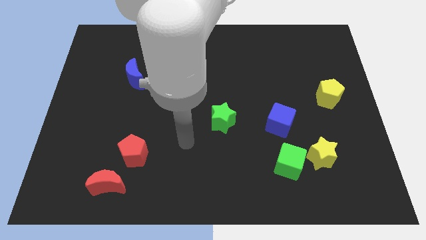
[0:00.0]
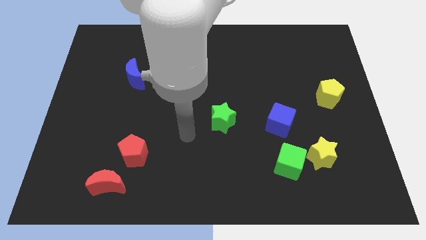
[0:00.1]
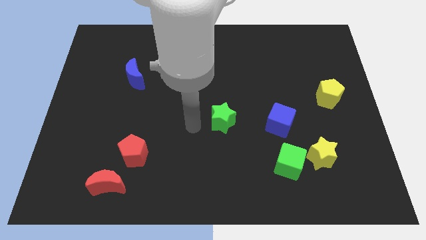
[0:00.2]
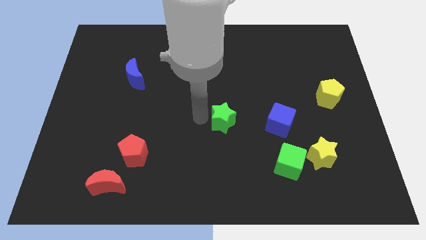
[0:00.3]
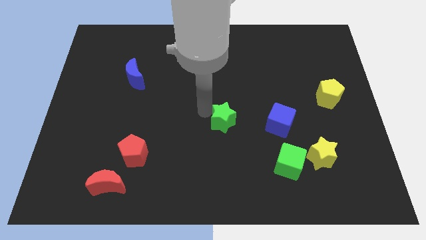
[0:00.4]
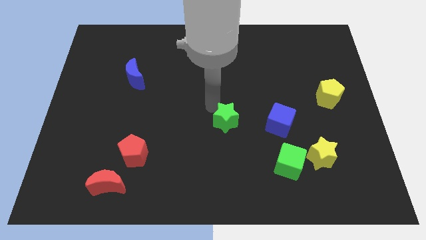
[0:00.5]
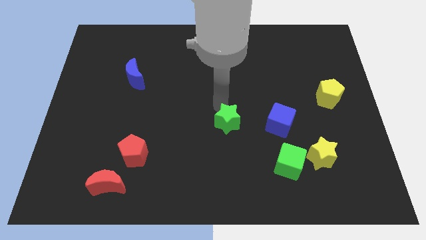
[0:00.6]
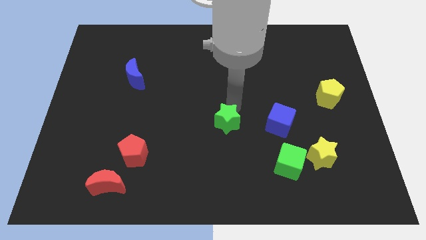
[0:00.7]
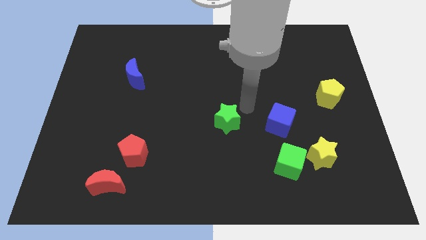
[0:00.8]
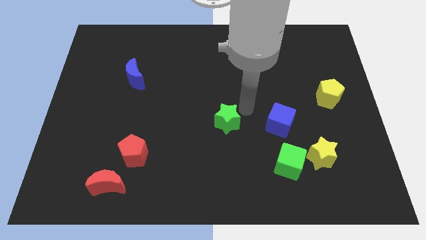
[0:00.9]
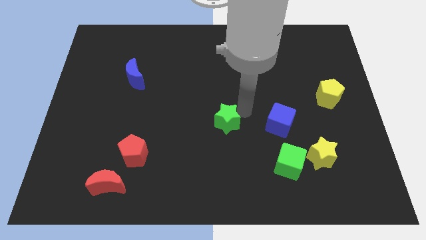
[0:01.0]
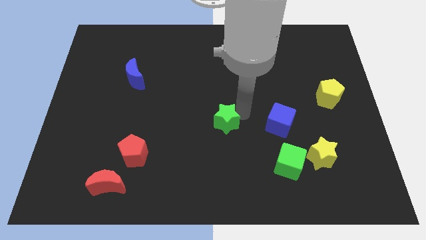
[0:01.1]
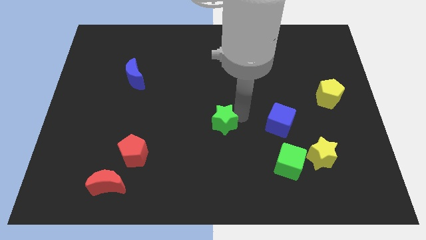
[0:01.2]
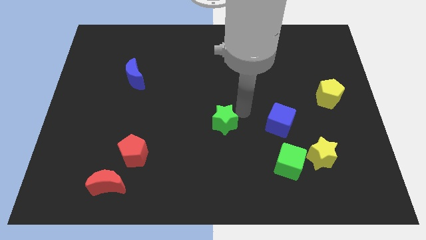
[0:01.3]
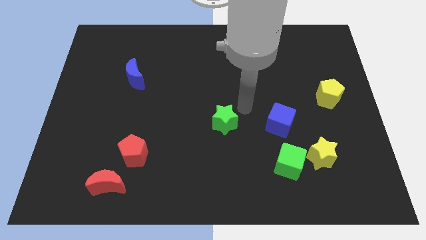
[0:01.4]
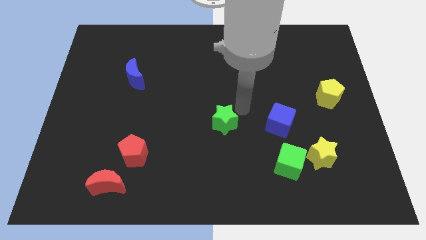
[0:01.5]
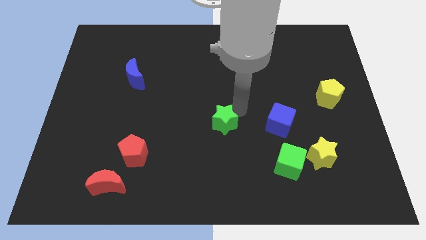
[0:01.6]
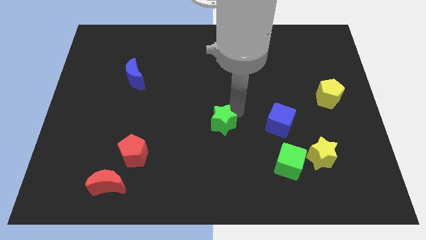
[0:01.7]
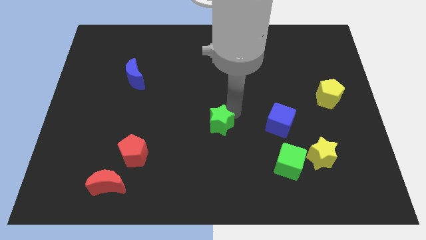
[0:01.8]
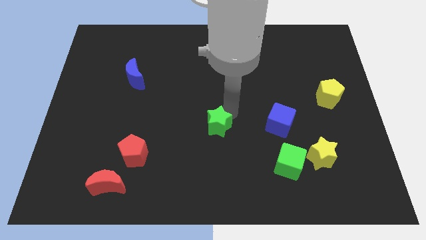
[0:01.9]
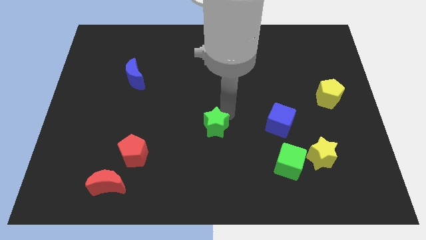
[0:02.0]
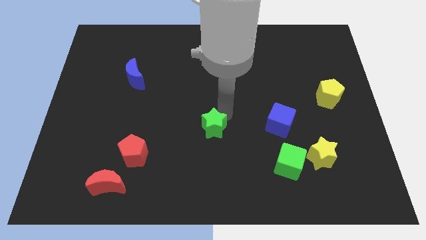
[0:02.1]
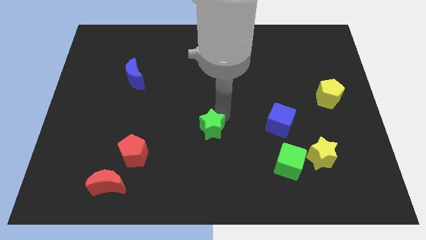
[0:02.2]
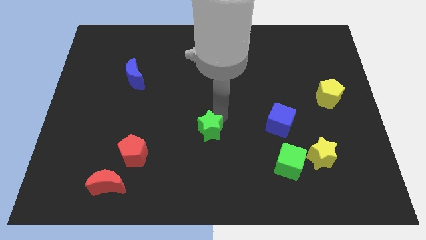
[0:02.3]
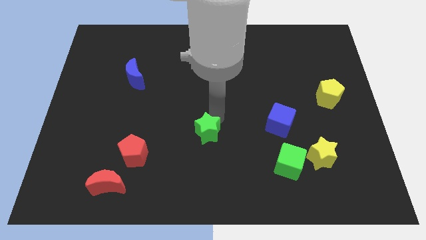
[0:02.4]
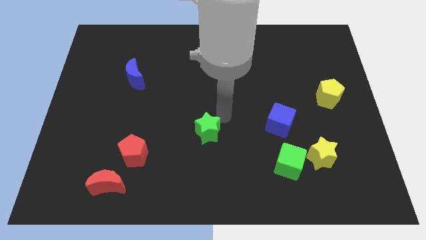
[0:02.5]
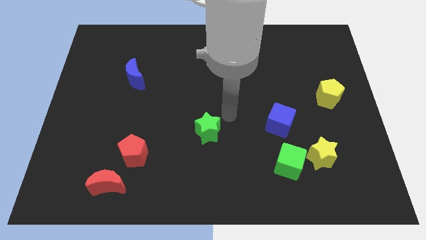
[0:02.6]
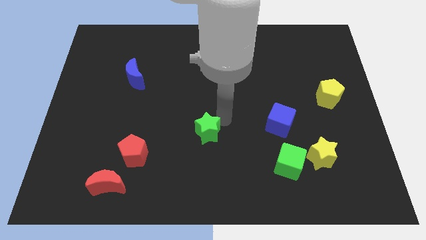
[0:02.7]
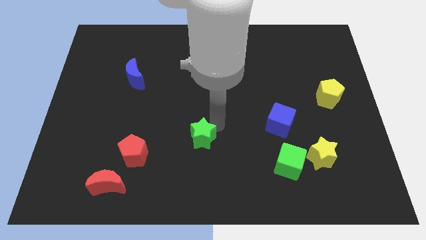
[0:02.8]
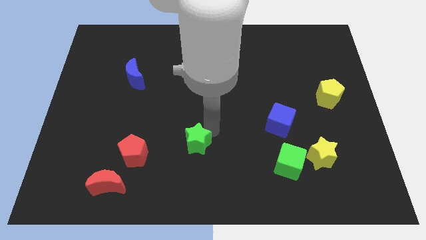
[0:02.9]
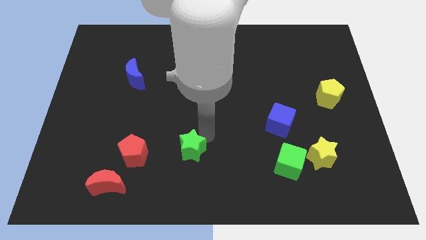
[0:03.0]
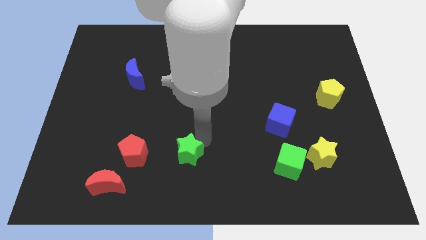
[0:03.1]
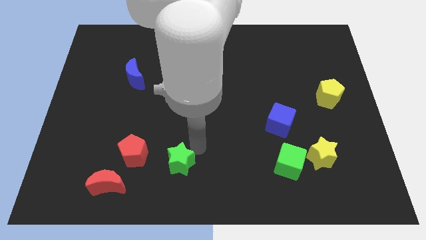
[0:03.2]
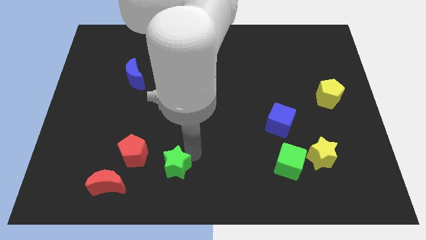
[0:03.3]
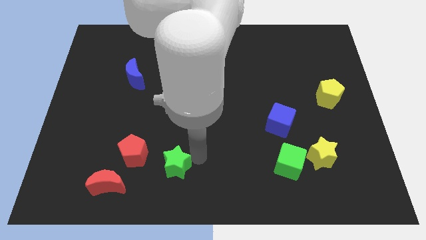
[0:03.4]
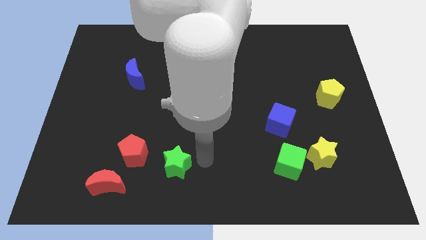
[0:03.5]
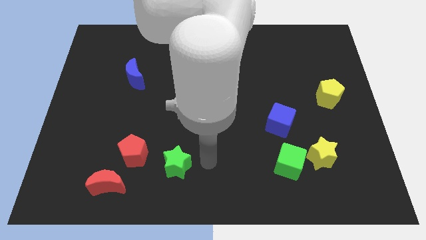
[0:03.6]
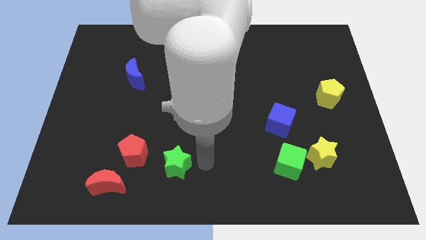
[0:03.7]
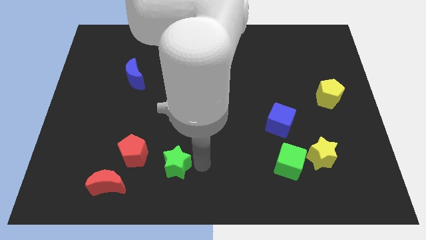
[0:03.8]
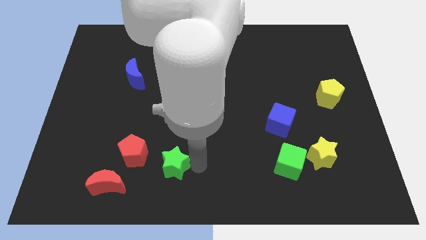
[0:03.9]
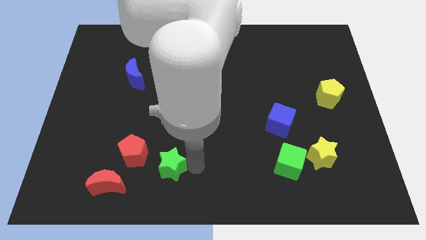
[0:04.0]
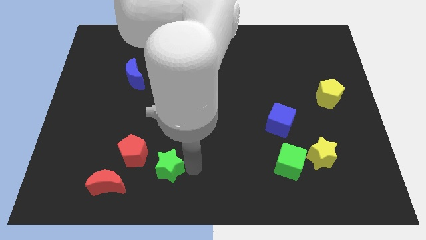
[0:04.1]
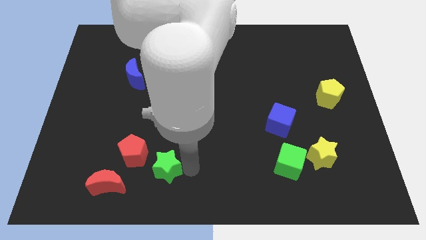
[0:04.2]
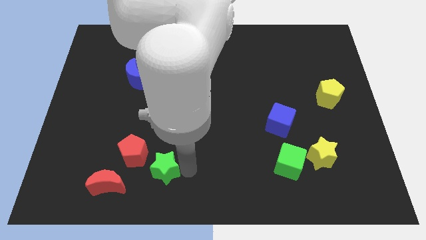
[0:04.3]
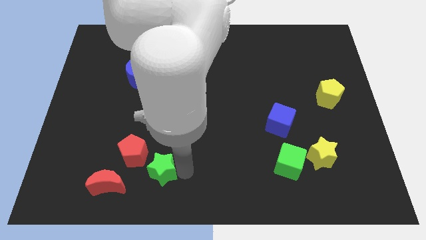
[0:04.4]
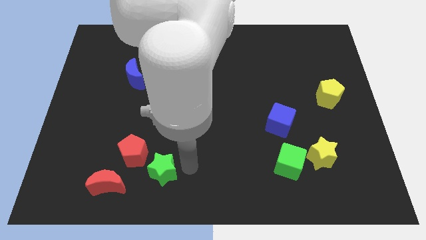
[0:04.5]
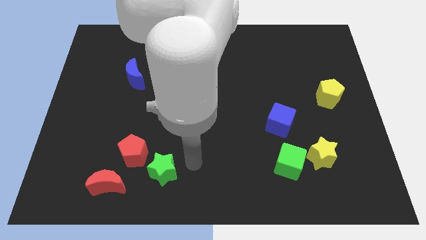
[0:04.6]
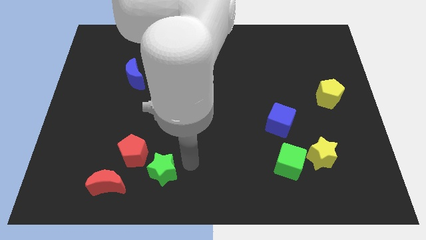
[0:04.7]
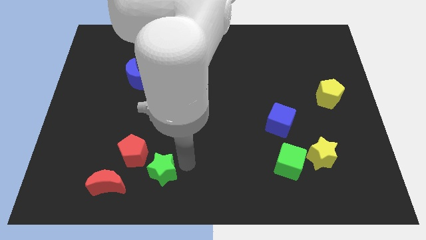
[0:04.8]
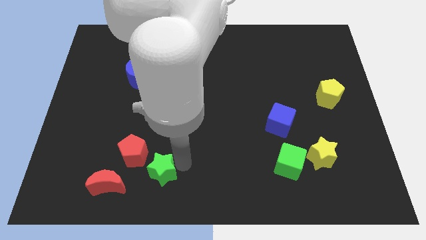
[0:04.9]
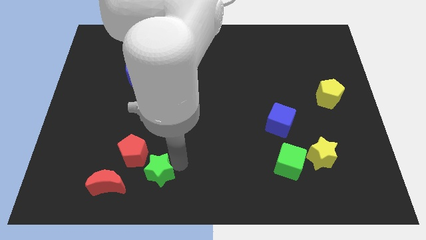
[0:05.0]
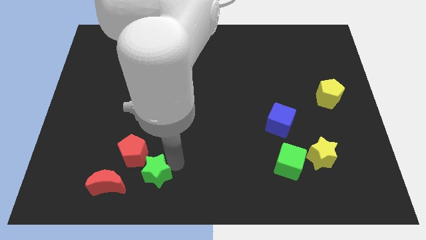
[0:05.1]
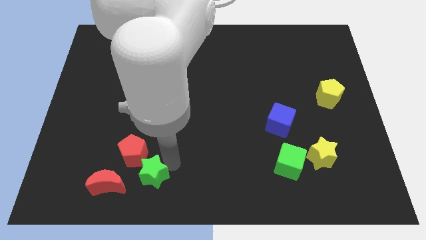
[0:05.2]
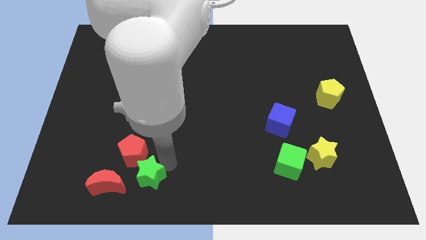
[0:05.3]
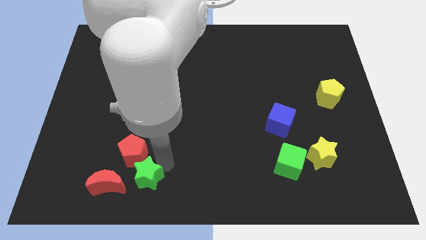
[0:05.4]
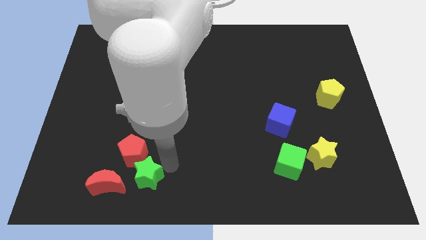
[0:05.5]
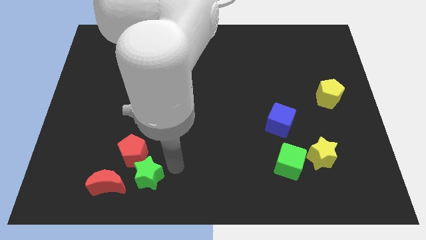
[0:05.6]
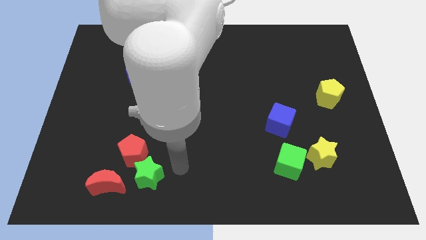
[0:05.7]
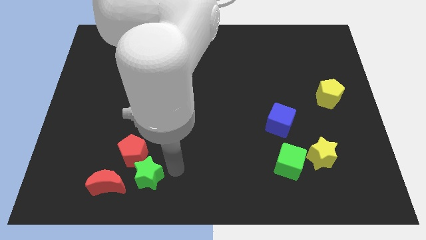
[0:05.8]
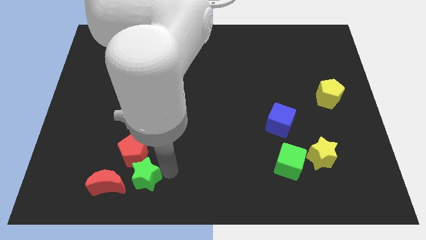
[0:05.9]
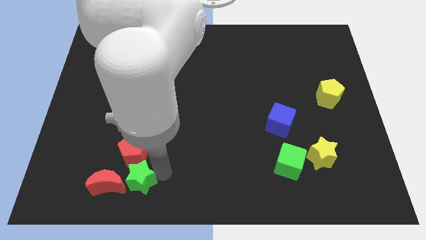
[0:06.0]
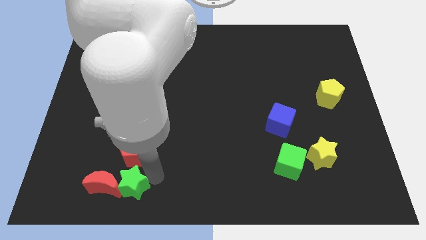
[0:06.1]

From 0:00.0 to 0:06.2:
slide the green star next to the red moon

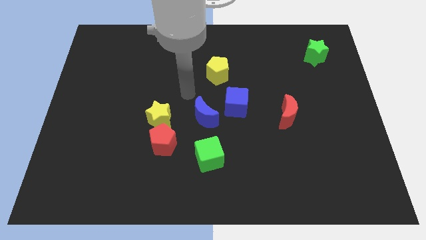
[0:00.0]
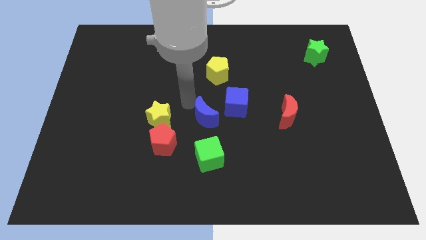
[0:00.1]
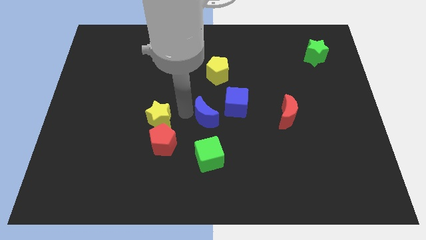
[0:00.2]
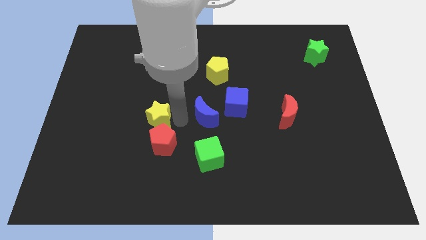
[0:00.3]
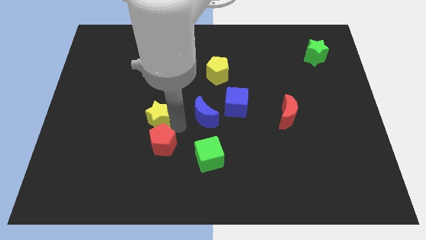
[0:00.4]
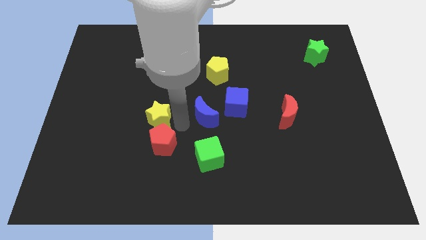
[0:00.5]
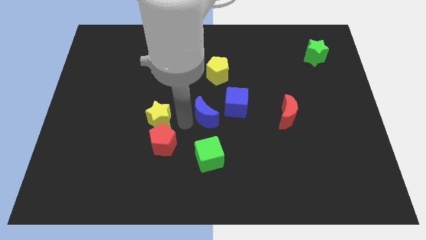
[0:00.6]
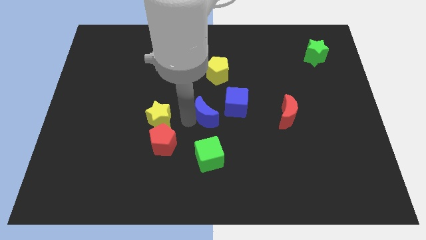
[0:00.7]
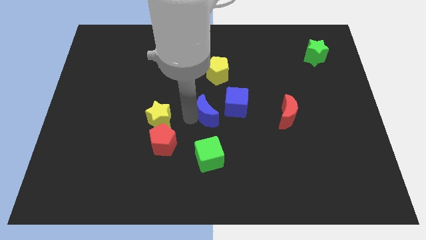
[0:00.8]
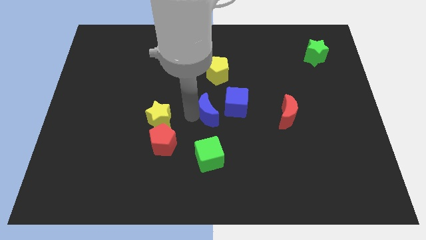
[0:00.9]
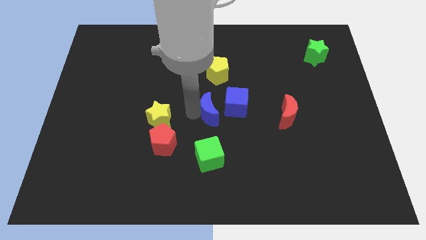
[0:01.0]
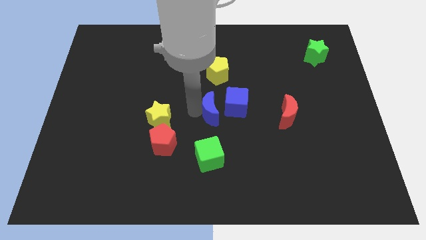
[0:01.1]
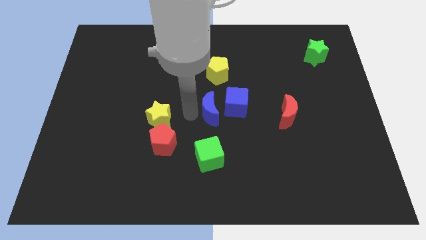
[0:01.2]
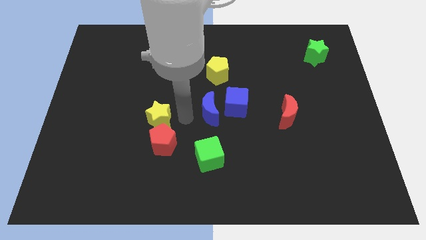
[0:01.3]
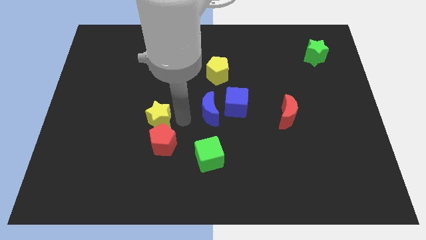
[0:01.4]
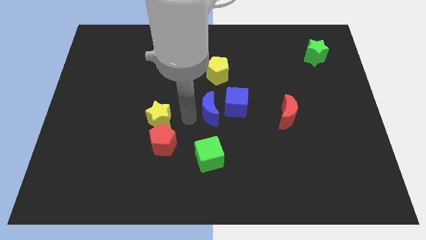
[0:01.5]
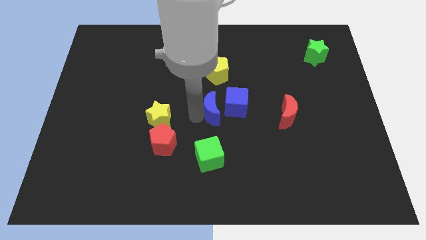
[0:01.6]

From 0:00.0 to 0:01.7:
push the blue moon to the blue cube
